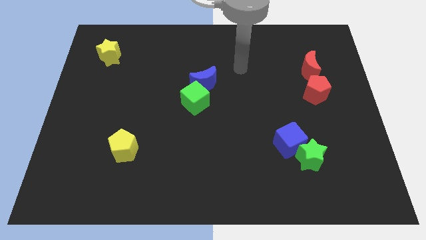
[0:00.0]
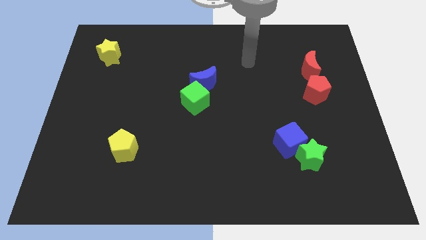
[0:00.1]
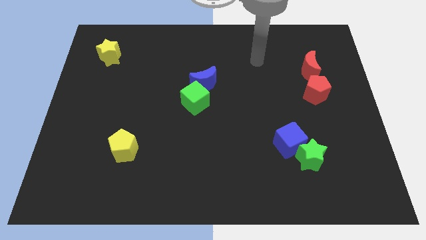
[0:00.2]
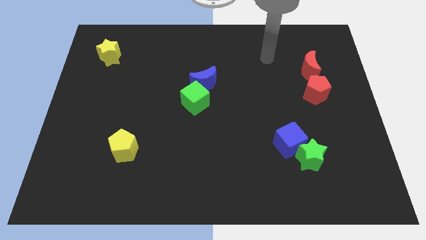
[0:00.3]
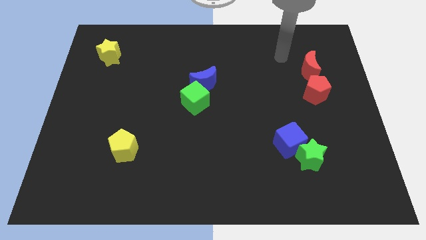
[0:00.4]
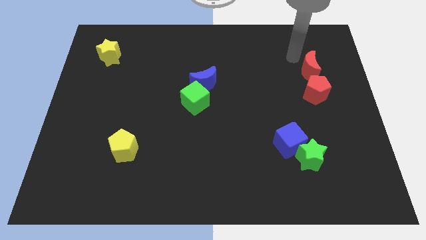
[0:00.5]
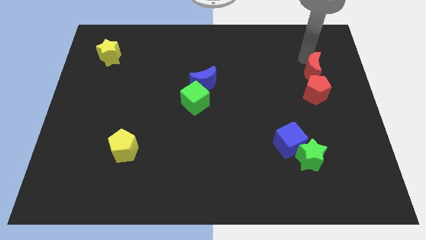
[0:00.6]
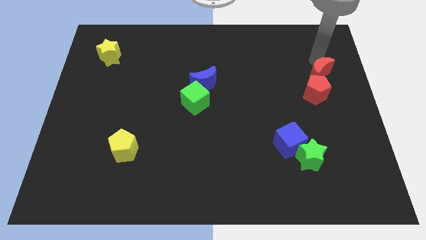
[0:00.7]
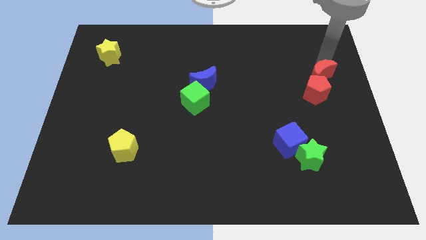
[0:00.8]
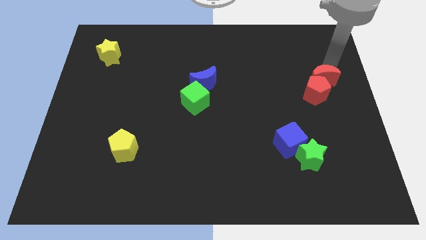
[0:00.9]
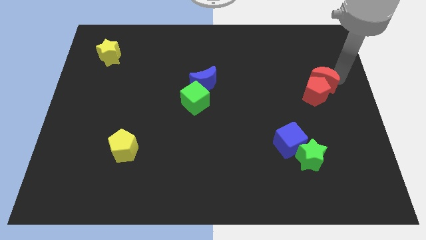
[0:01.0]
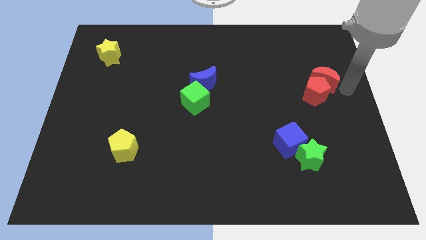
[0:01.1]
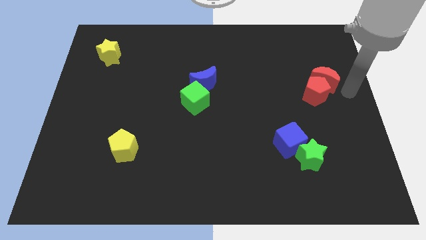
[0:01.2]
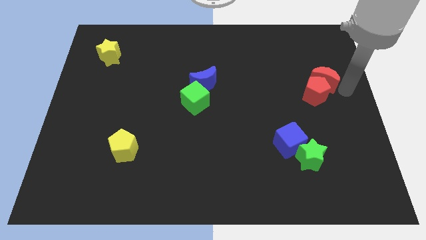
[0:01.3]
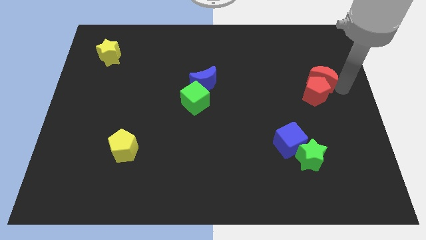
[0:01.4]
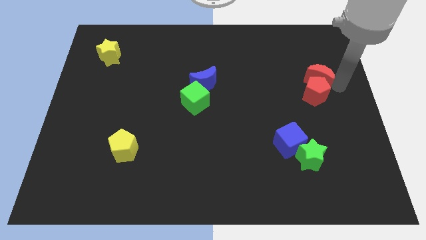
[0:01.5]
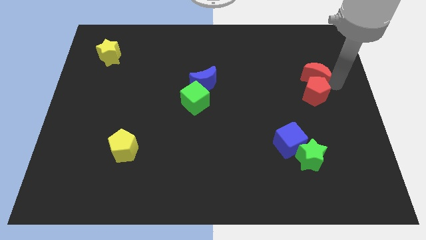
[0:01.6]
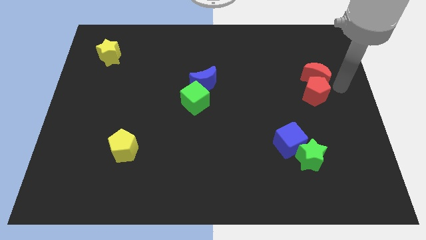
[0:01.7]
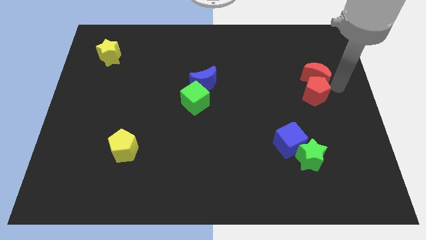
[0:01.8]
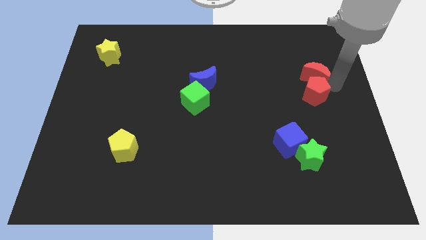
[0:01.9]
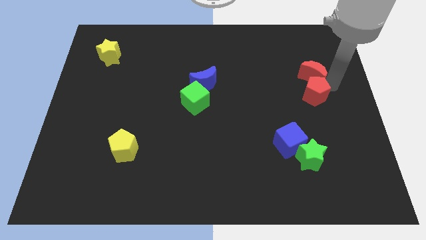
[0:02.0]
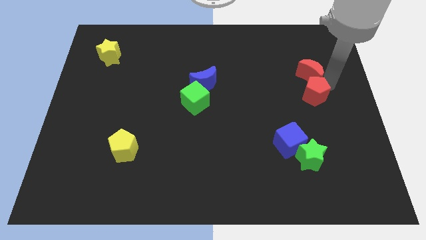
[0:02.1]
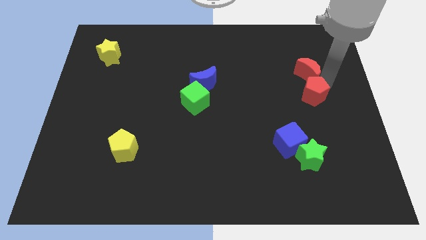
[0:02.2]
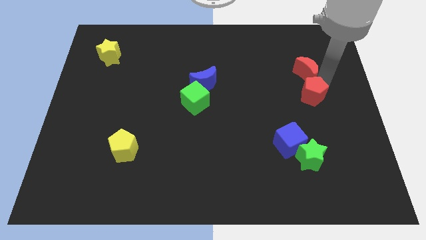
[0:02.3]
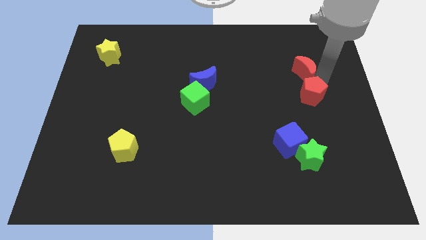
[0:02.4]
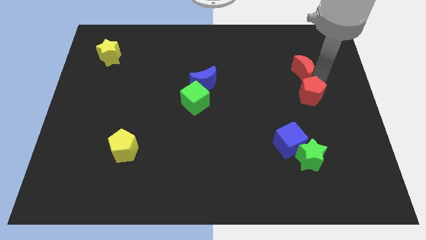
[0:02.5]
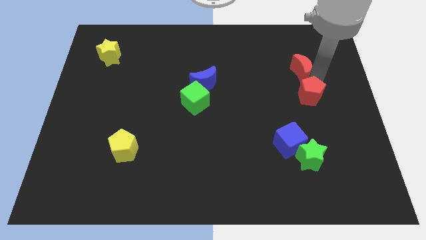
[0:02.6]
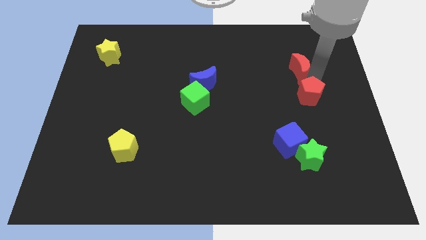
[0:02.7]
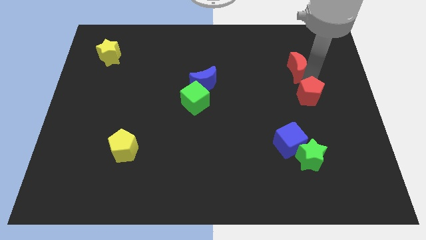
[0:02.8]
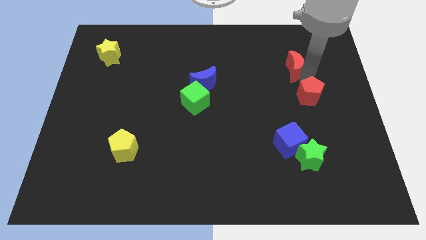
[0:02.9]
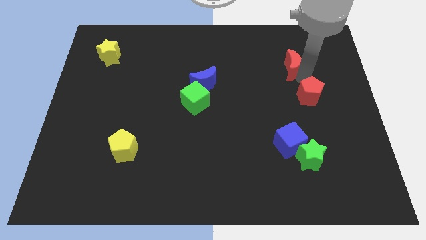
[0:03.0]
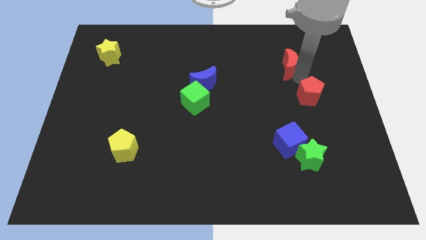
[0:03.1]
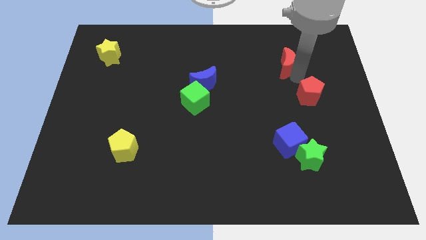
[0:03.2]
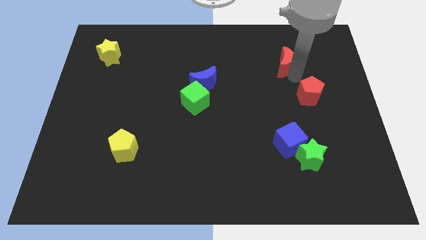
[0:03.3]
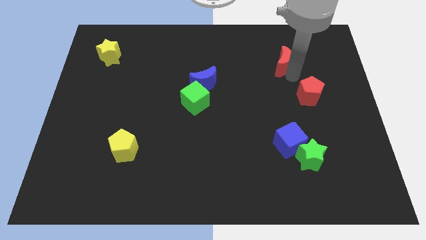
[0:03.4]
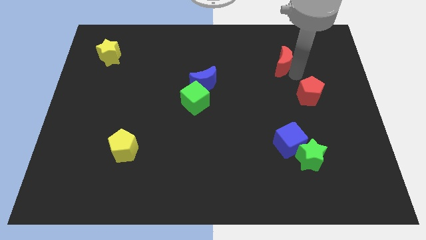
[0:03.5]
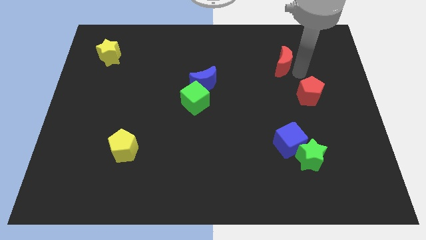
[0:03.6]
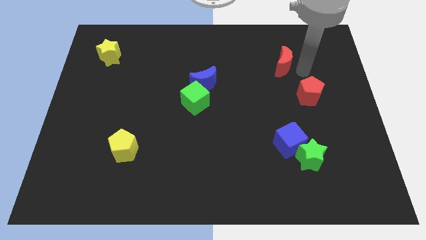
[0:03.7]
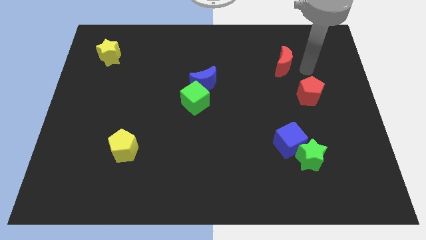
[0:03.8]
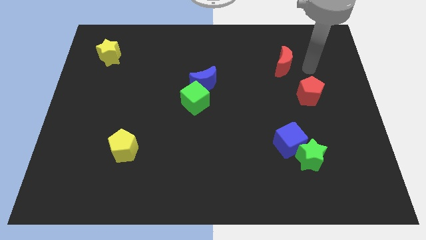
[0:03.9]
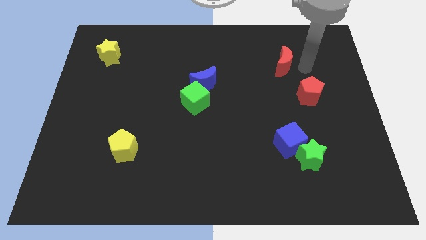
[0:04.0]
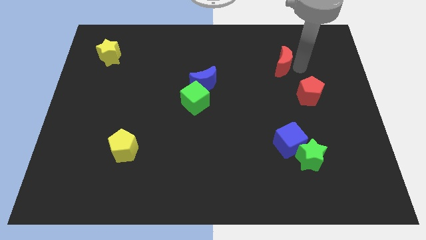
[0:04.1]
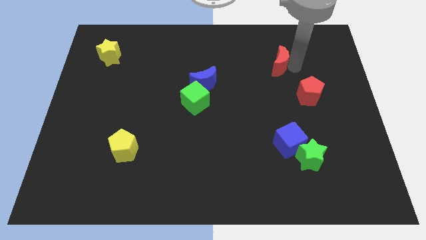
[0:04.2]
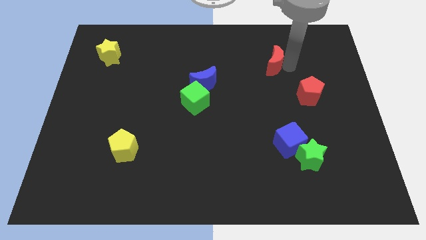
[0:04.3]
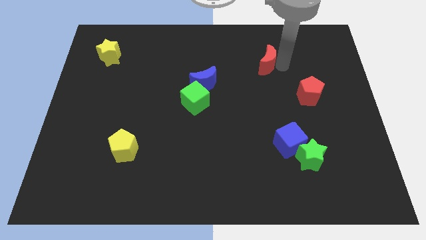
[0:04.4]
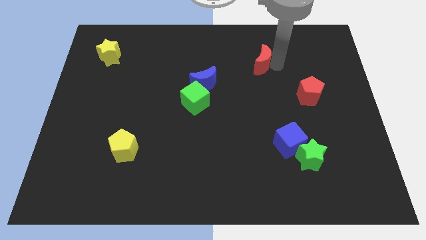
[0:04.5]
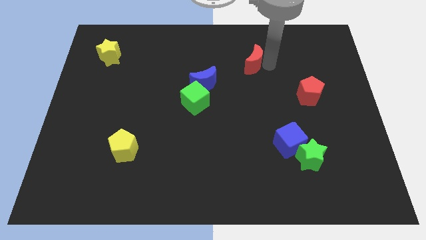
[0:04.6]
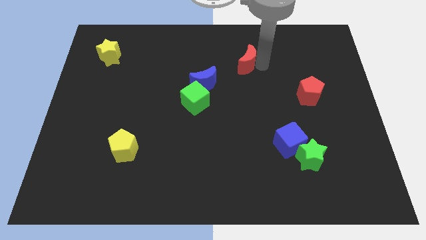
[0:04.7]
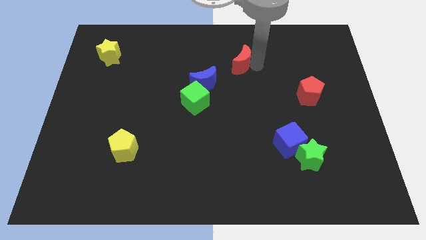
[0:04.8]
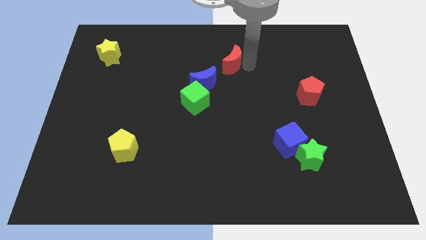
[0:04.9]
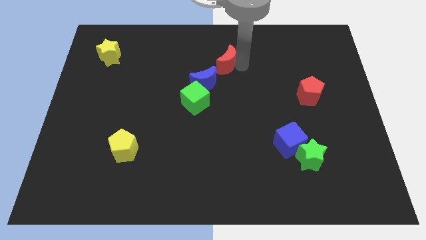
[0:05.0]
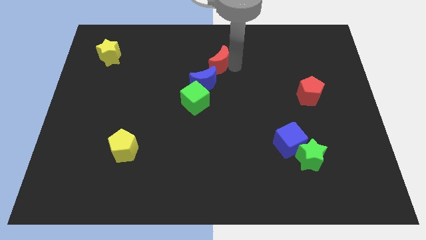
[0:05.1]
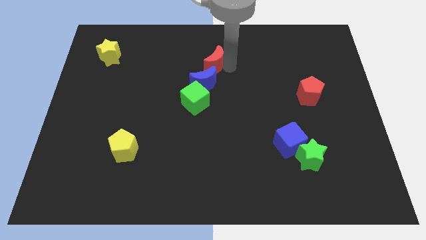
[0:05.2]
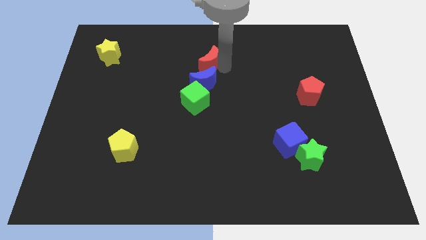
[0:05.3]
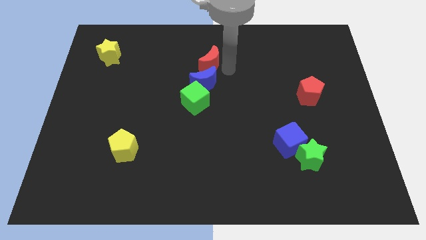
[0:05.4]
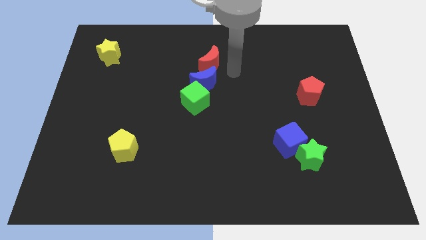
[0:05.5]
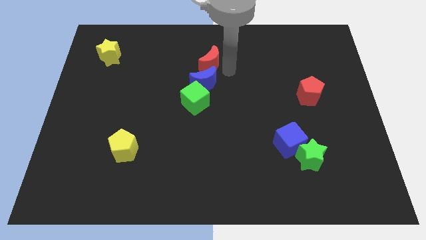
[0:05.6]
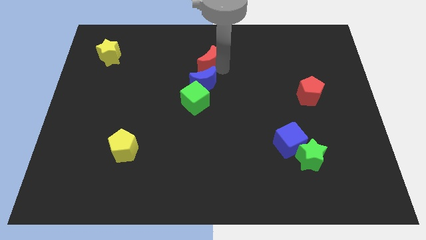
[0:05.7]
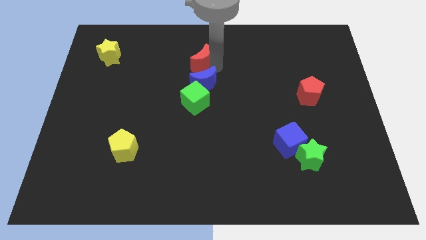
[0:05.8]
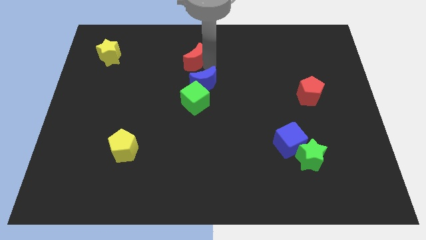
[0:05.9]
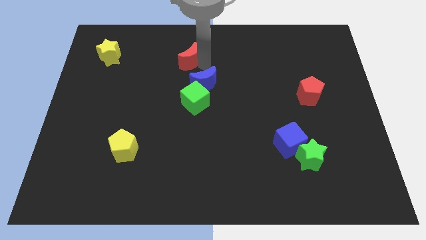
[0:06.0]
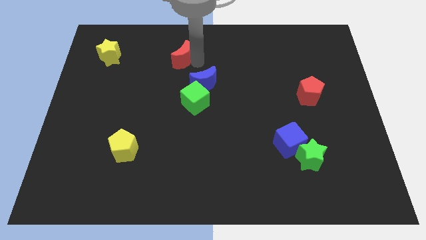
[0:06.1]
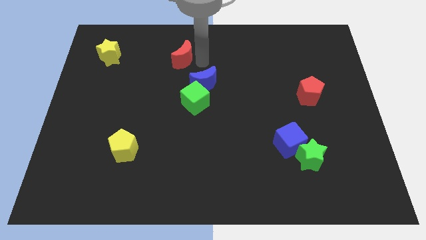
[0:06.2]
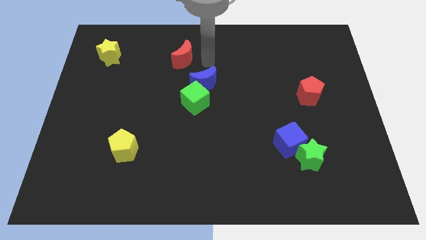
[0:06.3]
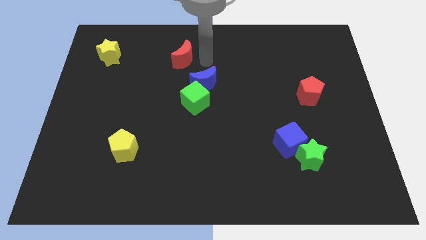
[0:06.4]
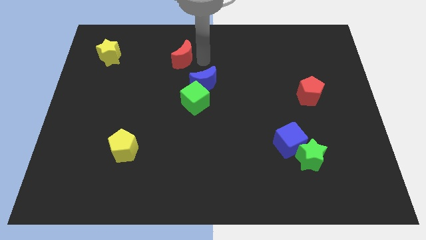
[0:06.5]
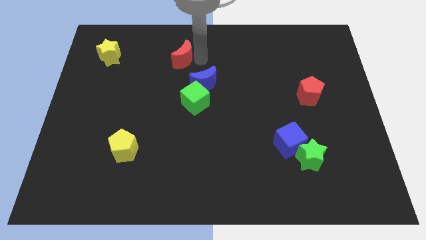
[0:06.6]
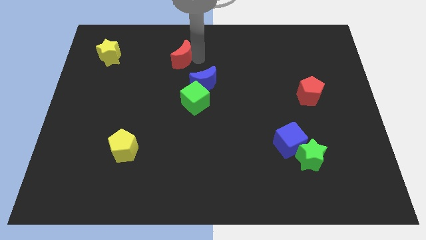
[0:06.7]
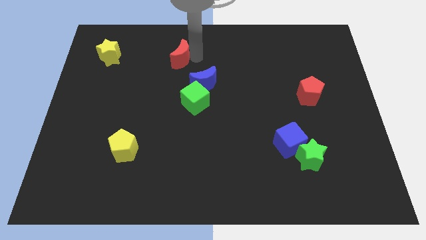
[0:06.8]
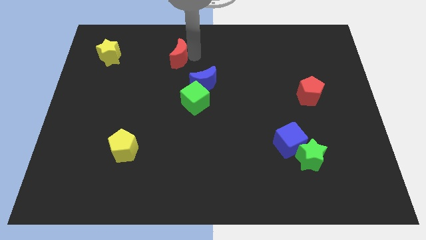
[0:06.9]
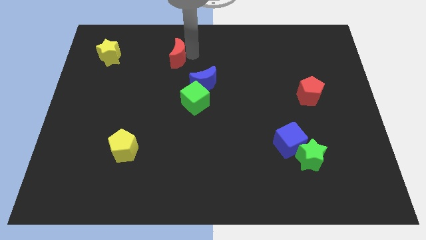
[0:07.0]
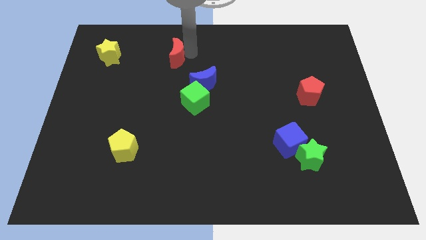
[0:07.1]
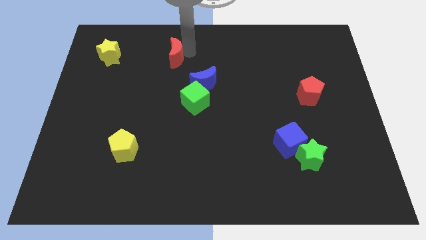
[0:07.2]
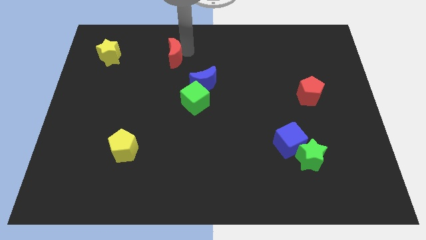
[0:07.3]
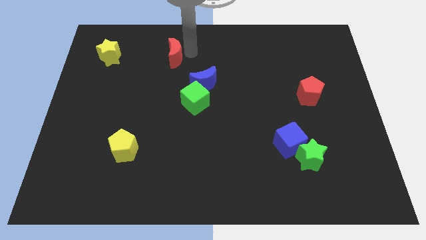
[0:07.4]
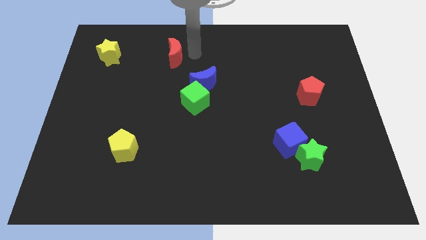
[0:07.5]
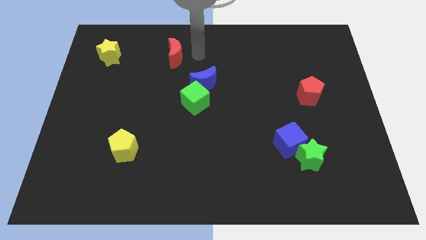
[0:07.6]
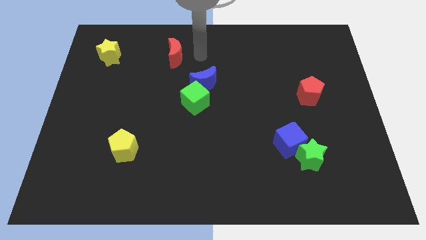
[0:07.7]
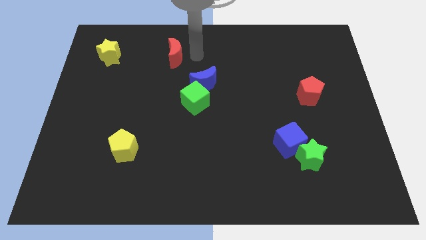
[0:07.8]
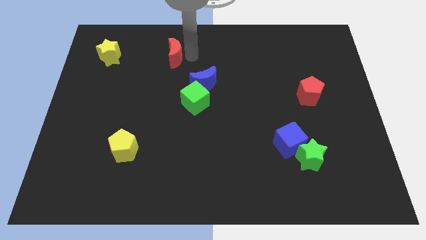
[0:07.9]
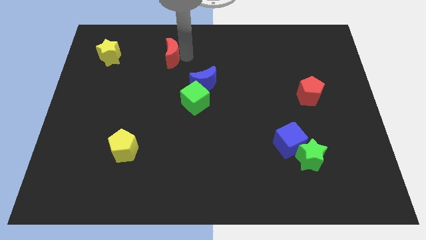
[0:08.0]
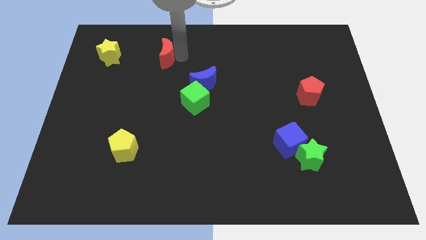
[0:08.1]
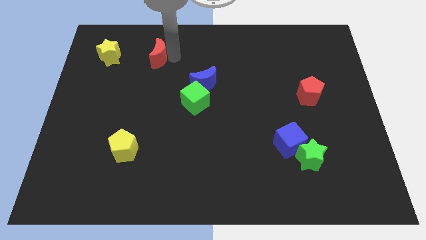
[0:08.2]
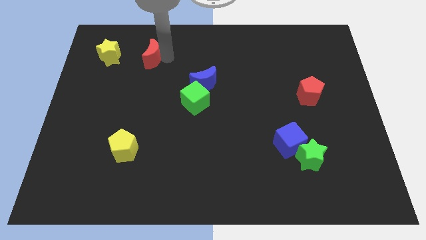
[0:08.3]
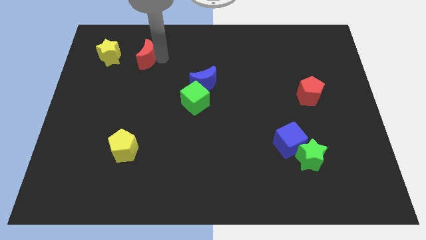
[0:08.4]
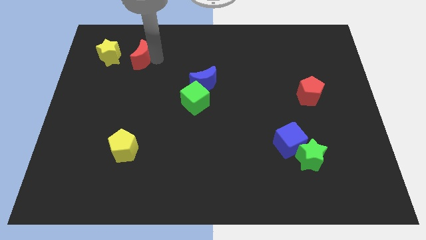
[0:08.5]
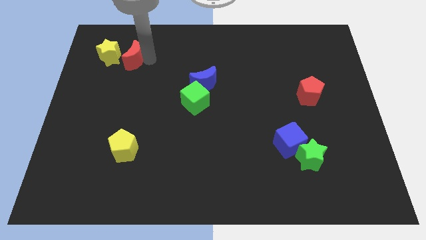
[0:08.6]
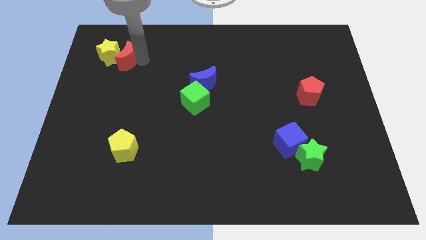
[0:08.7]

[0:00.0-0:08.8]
slide the red moon towards the yellow star
